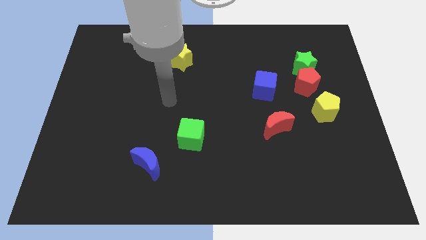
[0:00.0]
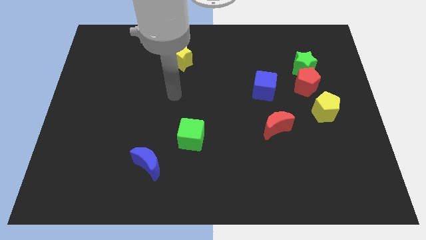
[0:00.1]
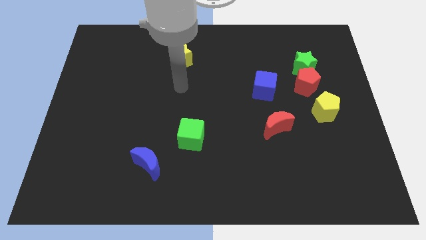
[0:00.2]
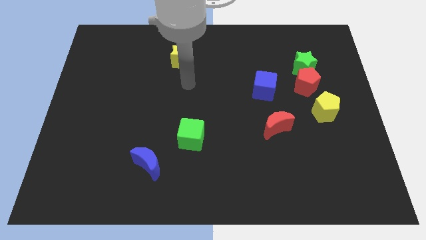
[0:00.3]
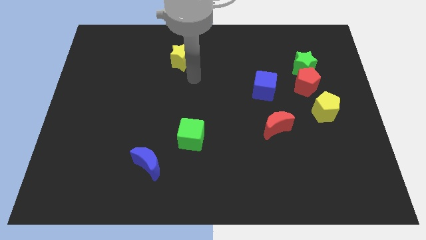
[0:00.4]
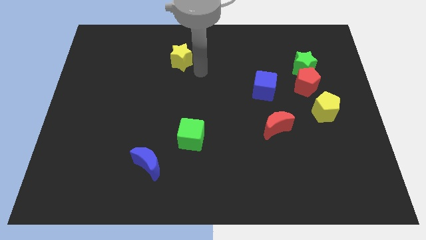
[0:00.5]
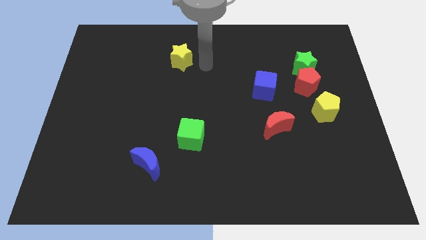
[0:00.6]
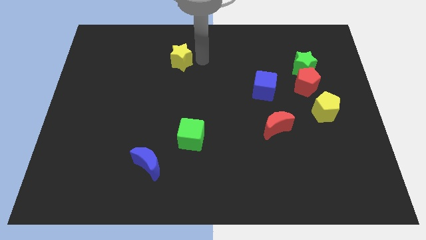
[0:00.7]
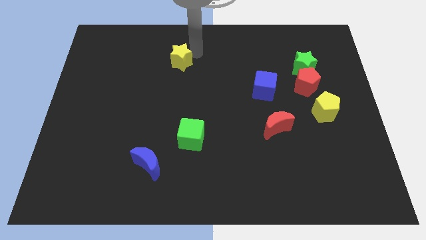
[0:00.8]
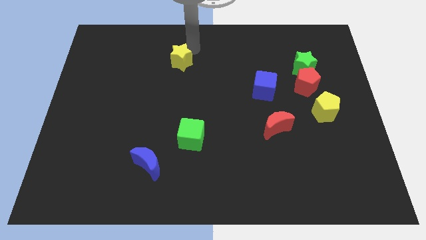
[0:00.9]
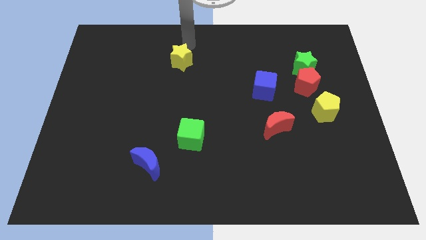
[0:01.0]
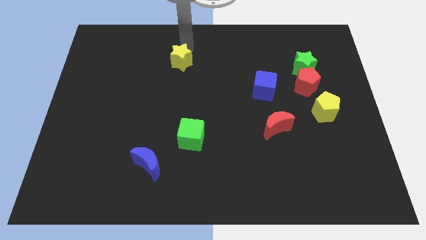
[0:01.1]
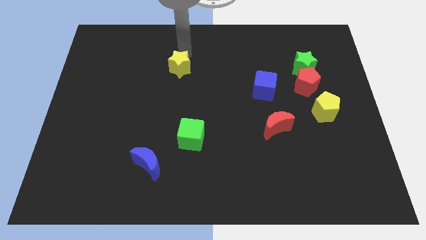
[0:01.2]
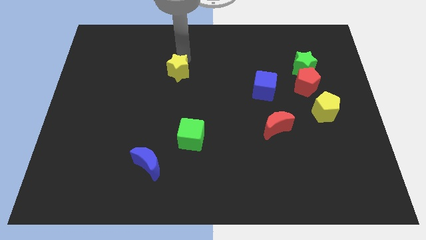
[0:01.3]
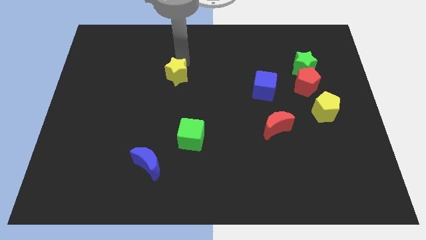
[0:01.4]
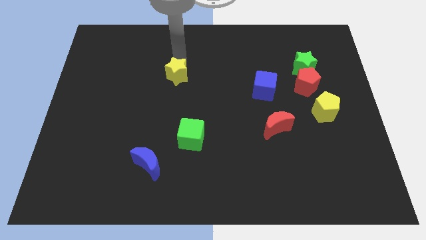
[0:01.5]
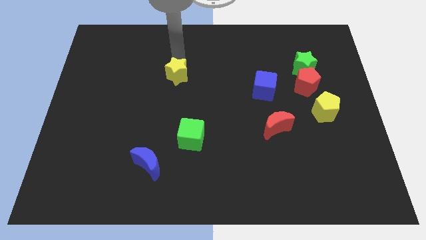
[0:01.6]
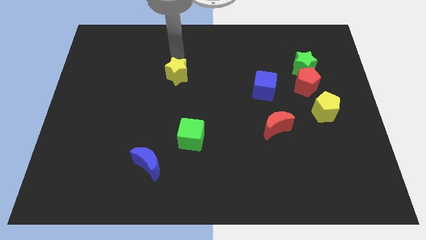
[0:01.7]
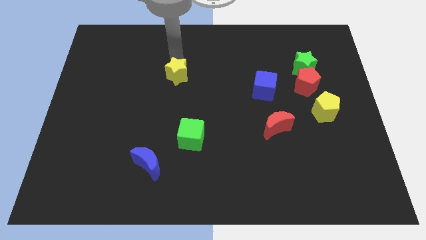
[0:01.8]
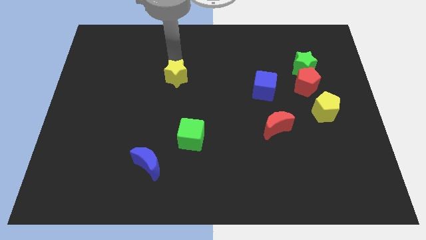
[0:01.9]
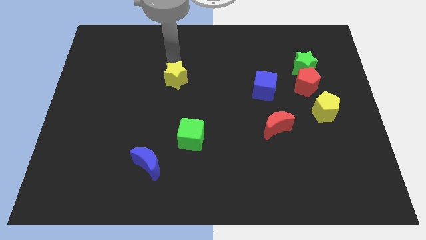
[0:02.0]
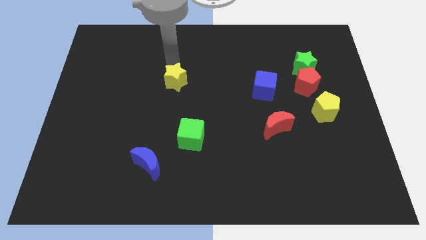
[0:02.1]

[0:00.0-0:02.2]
push the yellow star downwards slightly

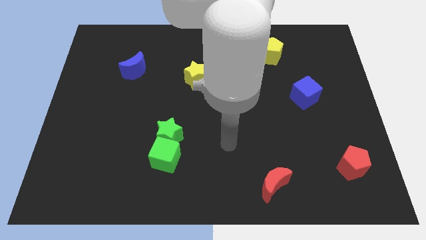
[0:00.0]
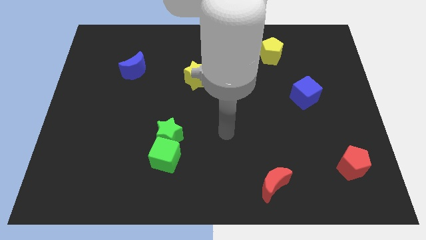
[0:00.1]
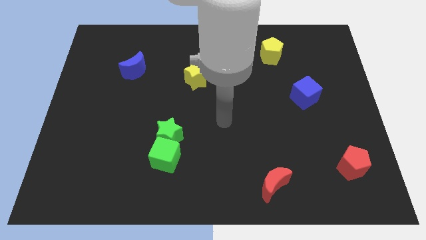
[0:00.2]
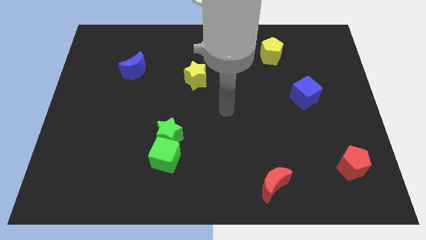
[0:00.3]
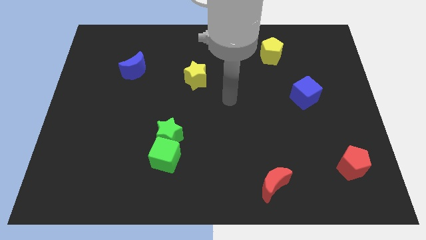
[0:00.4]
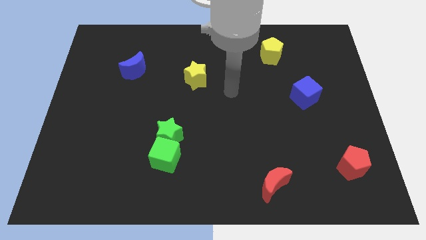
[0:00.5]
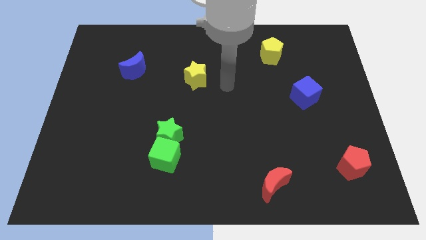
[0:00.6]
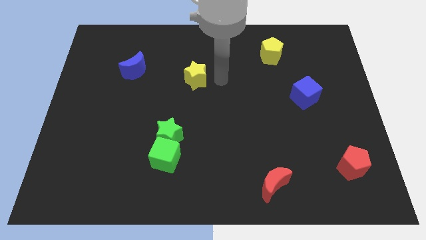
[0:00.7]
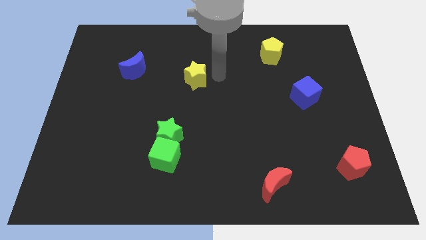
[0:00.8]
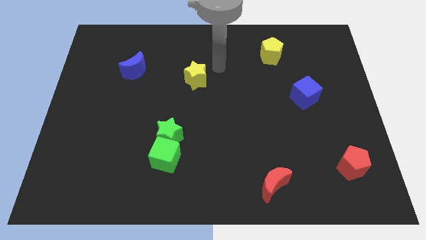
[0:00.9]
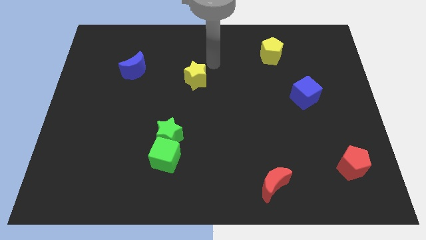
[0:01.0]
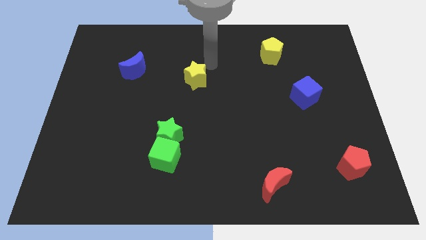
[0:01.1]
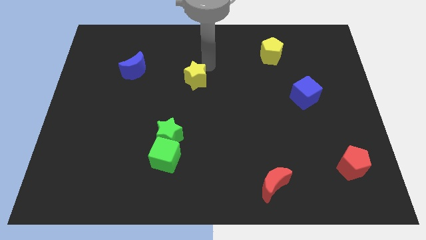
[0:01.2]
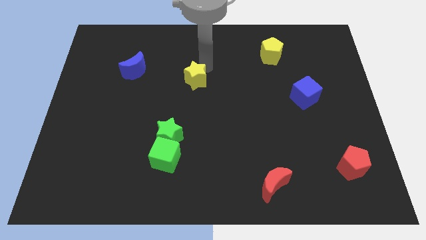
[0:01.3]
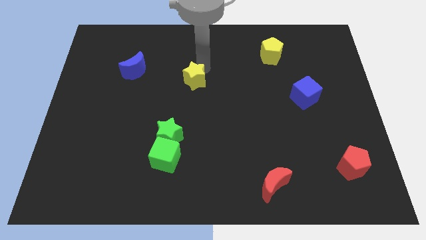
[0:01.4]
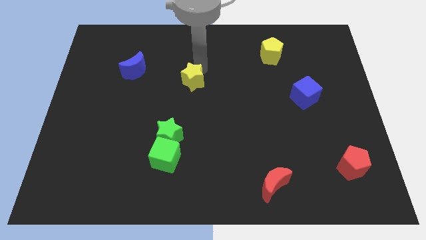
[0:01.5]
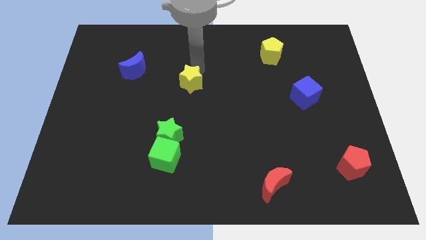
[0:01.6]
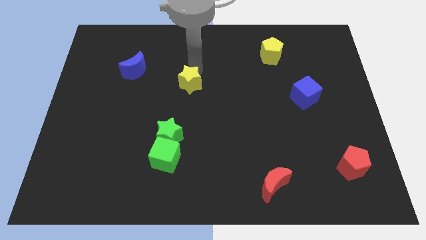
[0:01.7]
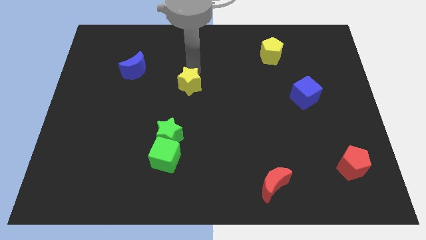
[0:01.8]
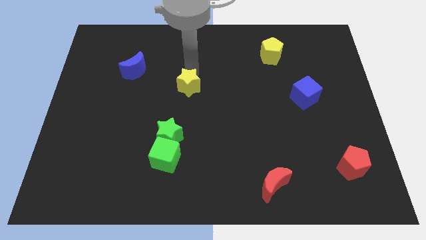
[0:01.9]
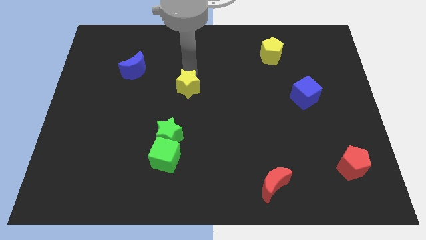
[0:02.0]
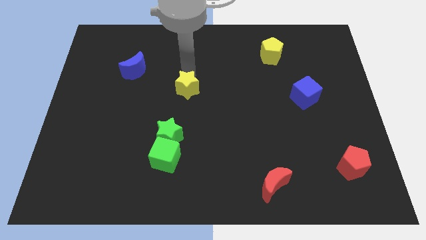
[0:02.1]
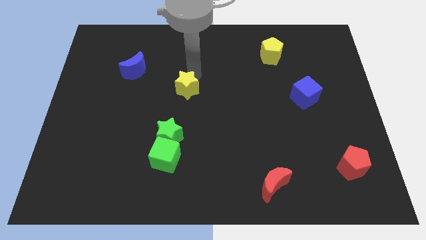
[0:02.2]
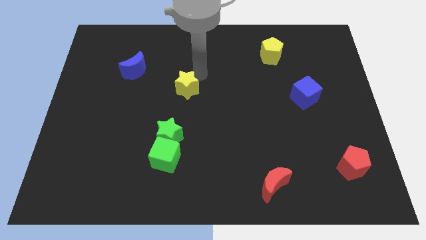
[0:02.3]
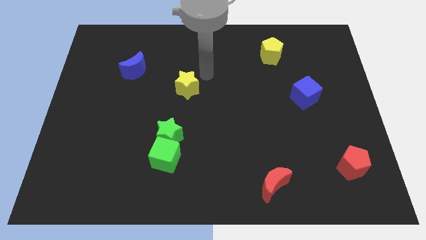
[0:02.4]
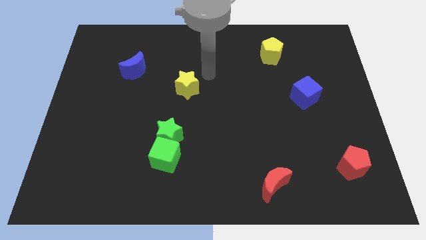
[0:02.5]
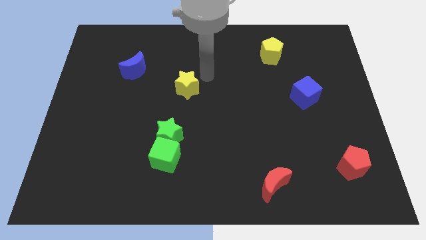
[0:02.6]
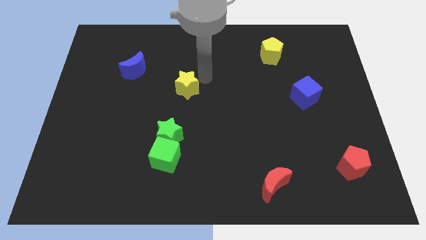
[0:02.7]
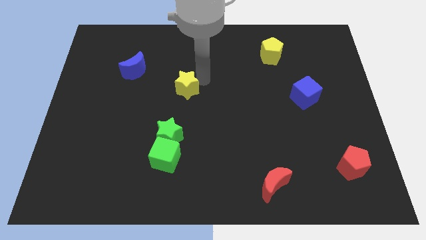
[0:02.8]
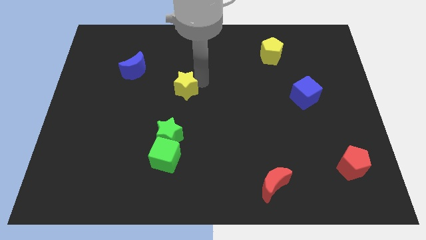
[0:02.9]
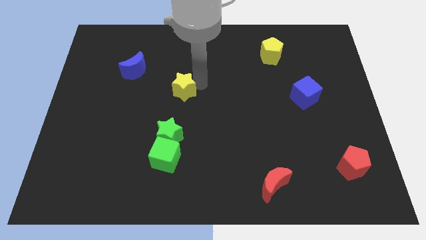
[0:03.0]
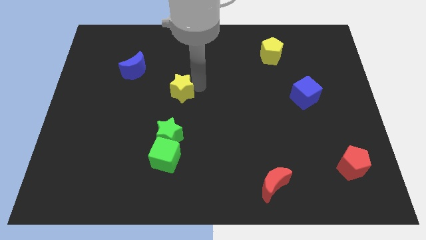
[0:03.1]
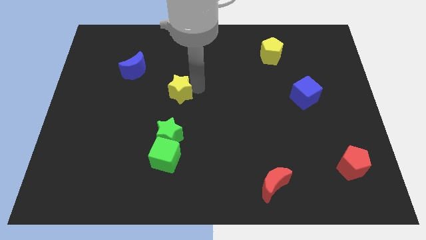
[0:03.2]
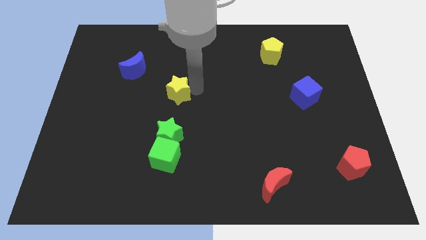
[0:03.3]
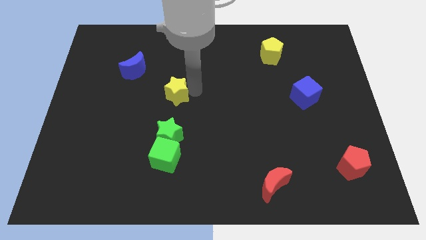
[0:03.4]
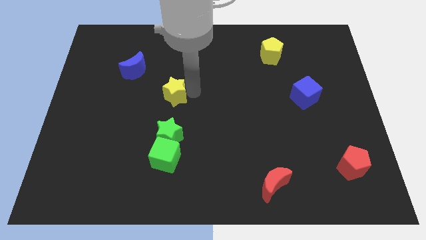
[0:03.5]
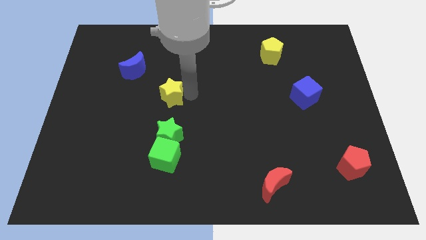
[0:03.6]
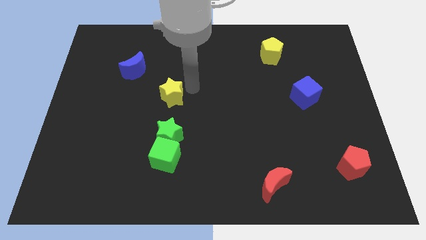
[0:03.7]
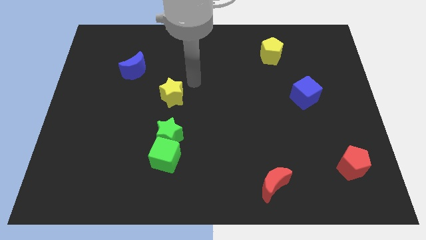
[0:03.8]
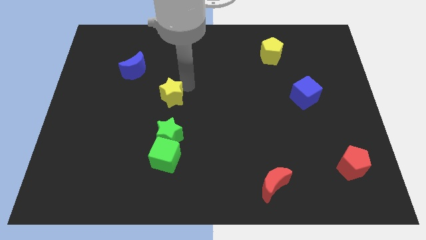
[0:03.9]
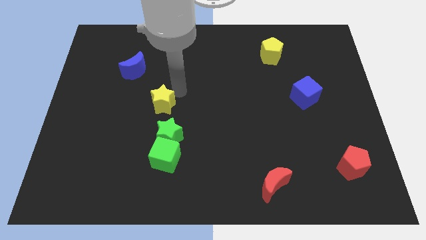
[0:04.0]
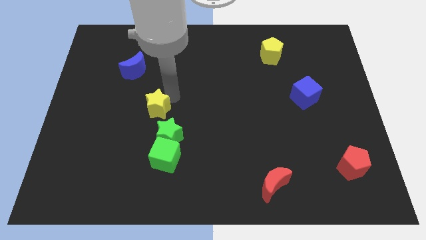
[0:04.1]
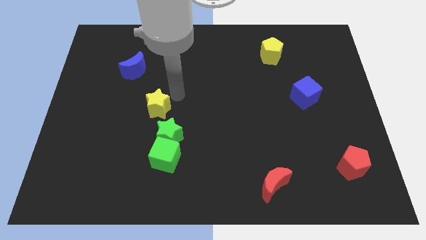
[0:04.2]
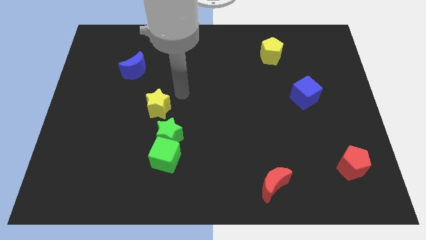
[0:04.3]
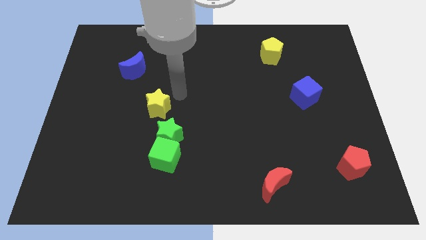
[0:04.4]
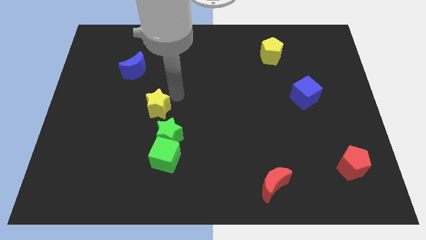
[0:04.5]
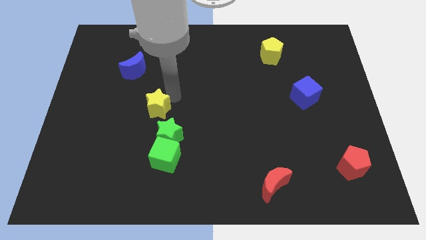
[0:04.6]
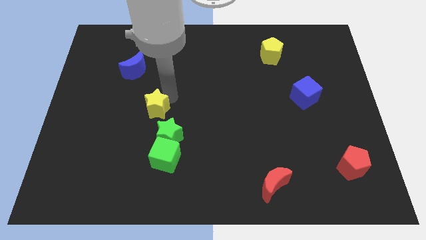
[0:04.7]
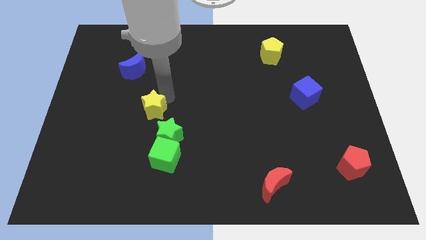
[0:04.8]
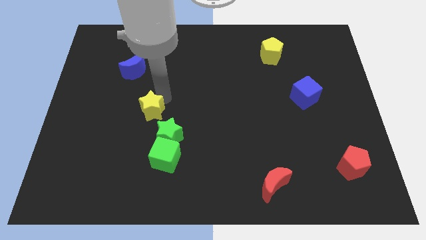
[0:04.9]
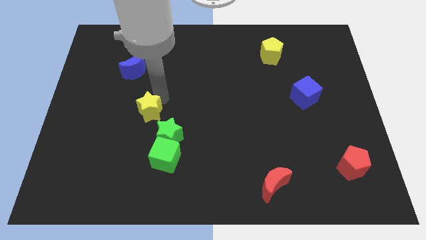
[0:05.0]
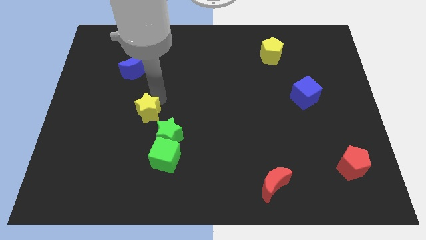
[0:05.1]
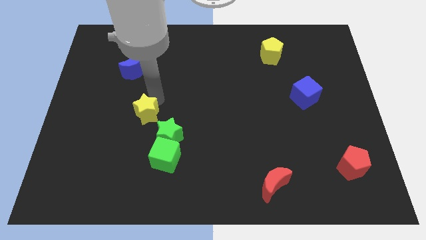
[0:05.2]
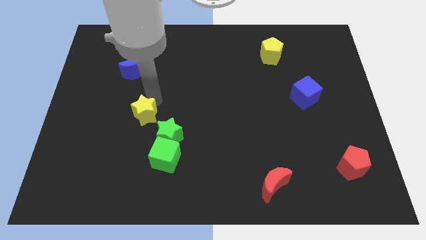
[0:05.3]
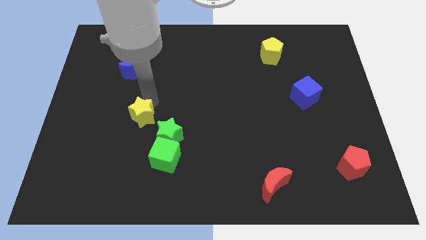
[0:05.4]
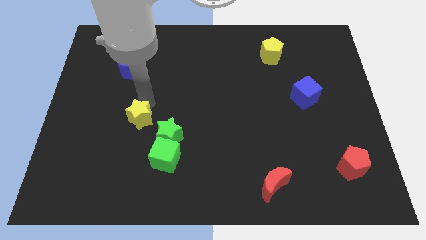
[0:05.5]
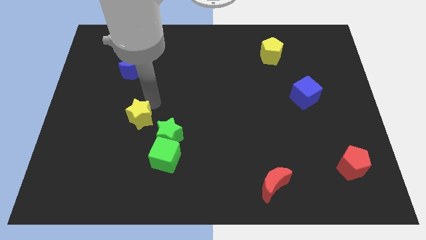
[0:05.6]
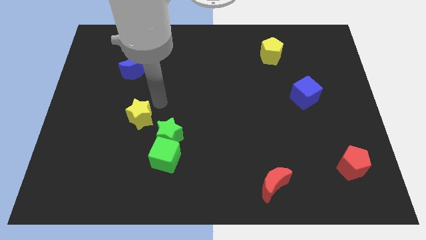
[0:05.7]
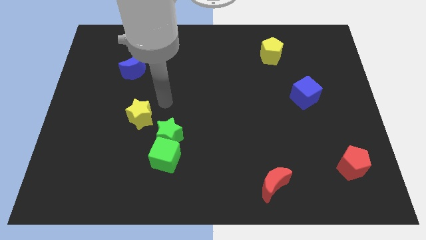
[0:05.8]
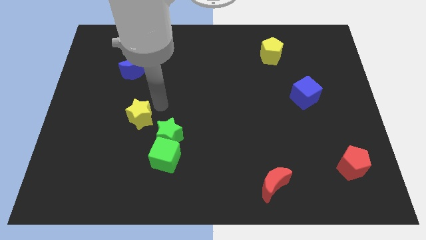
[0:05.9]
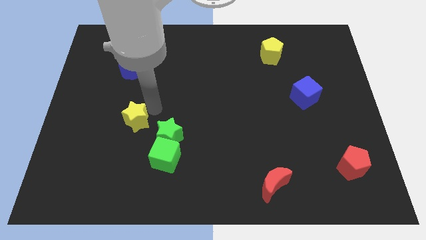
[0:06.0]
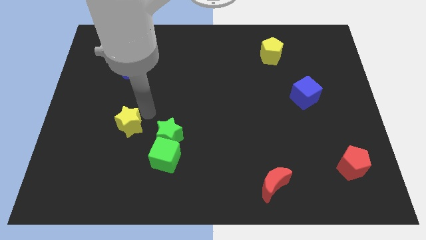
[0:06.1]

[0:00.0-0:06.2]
slide the yellow star down and then left
